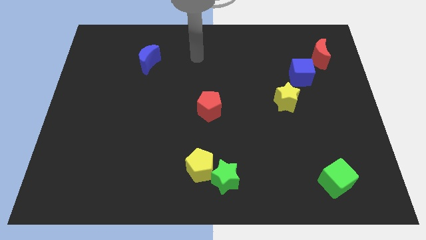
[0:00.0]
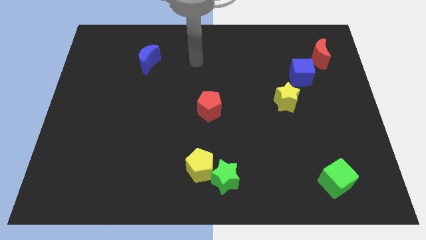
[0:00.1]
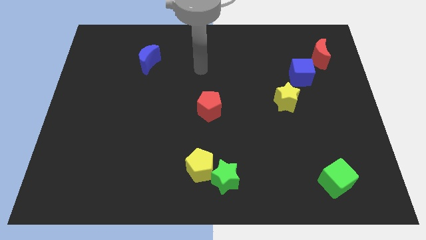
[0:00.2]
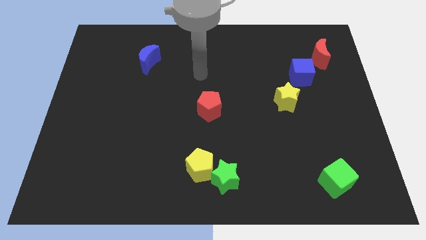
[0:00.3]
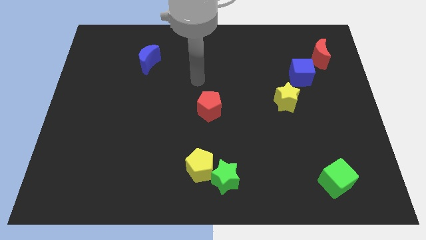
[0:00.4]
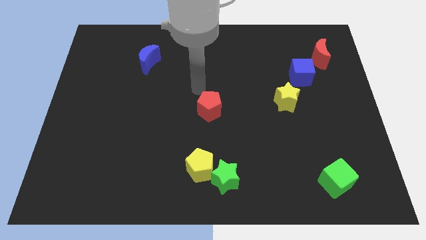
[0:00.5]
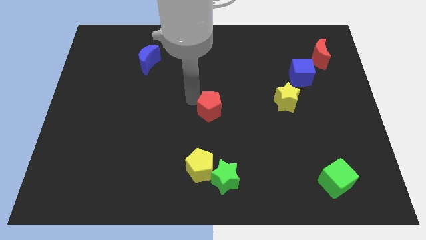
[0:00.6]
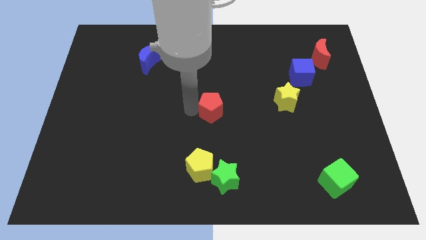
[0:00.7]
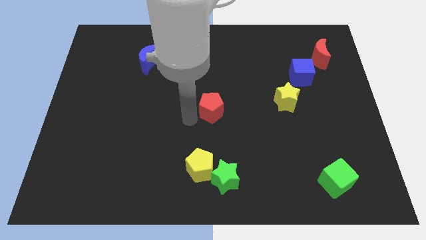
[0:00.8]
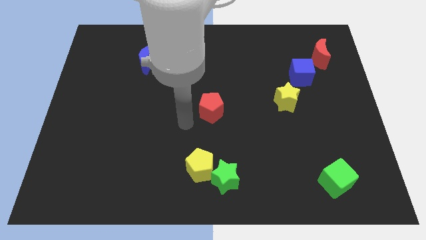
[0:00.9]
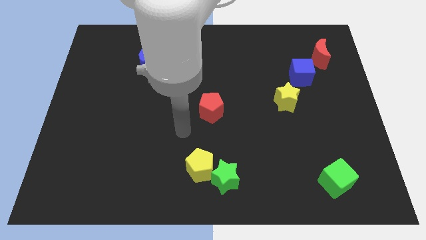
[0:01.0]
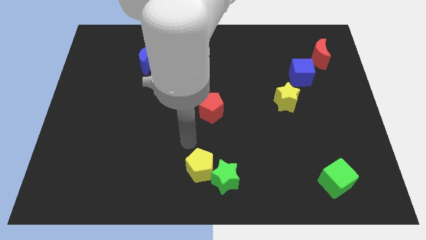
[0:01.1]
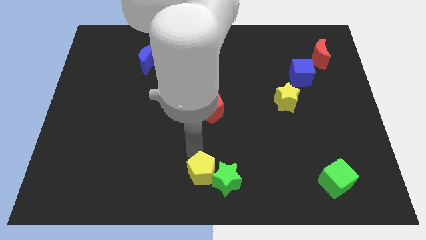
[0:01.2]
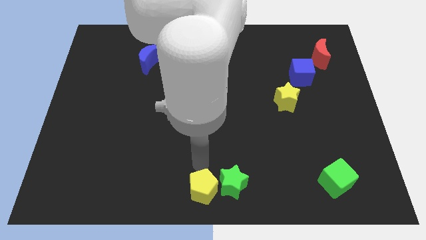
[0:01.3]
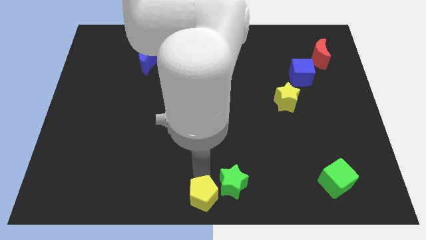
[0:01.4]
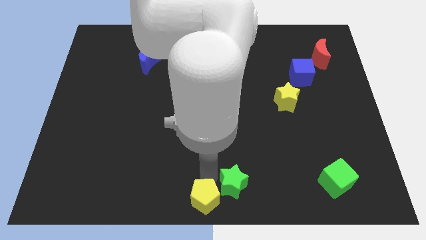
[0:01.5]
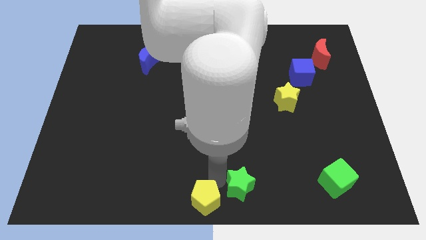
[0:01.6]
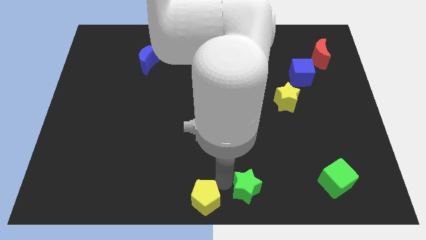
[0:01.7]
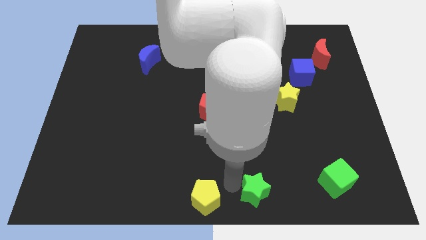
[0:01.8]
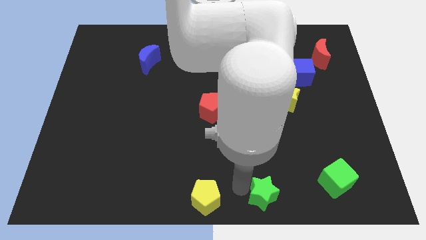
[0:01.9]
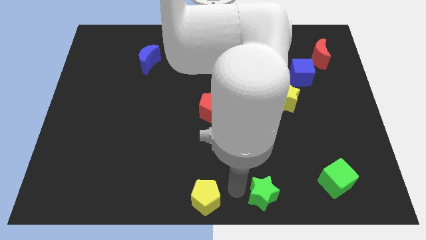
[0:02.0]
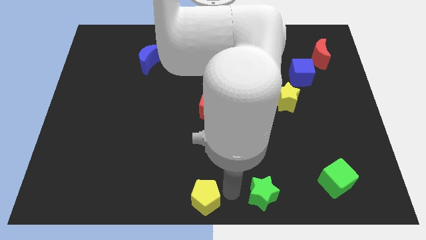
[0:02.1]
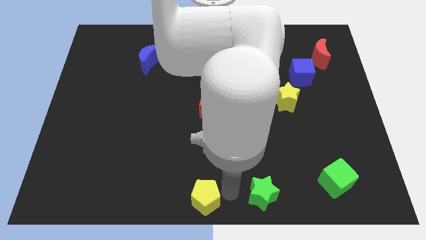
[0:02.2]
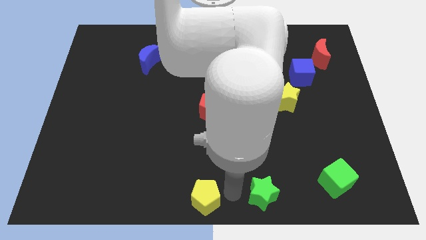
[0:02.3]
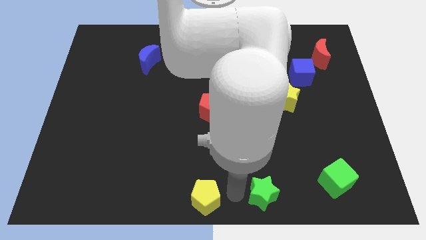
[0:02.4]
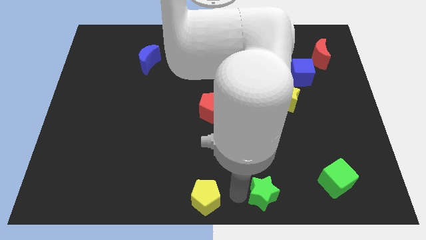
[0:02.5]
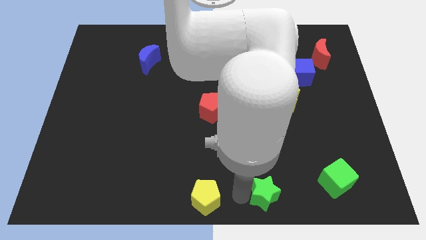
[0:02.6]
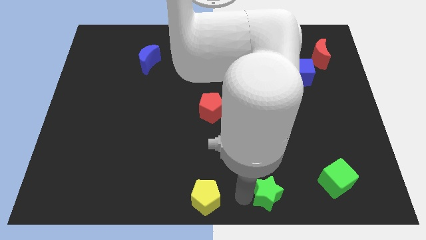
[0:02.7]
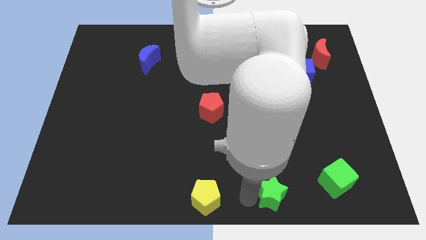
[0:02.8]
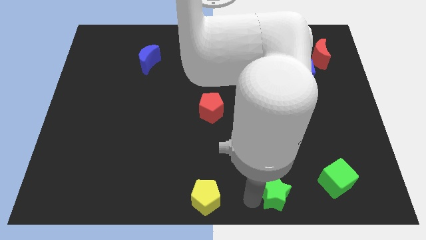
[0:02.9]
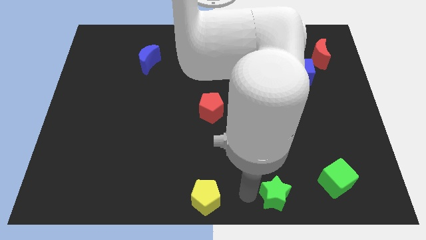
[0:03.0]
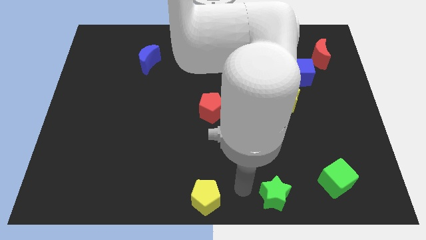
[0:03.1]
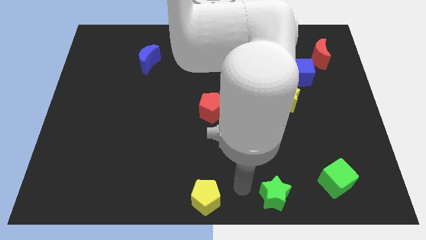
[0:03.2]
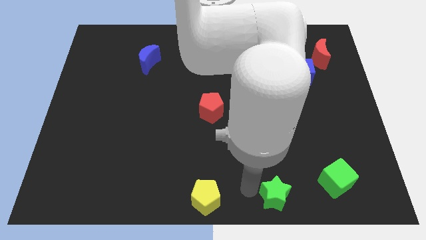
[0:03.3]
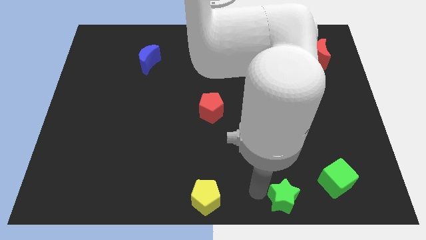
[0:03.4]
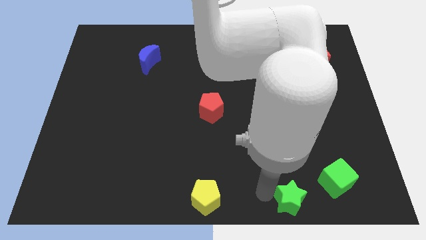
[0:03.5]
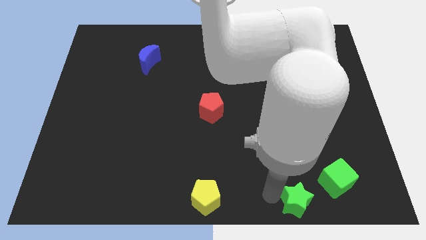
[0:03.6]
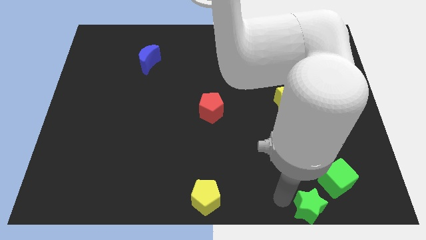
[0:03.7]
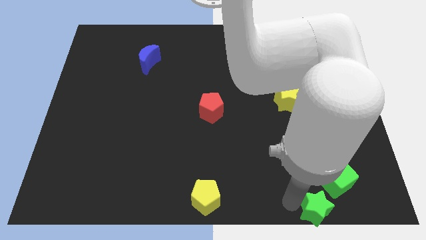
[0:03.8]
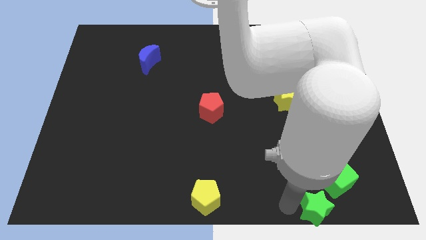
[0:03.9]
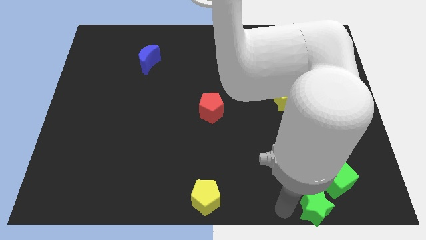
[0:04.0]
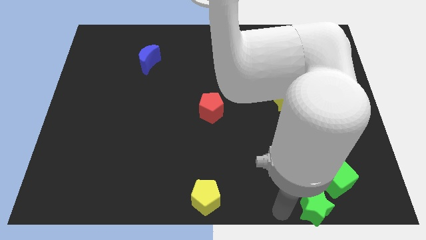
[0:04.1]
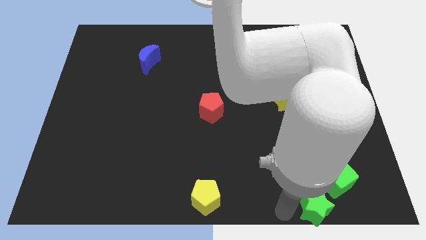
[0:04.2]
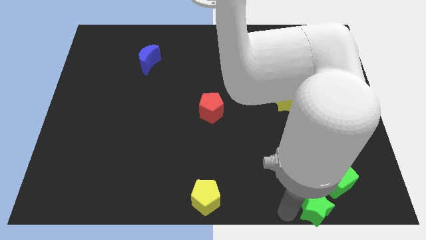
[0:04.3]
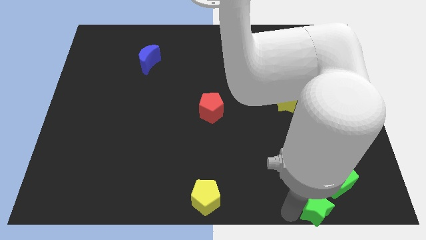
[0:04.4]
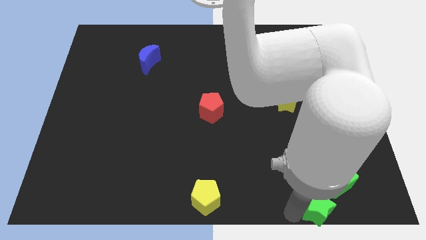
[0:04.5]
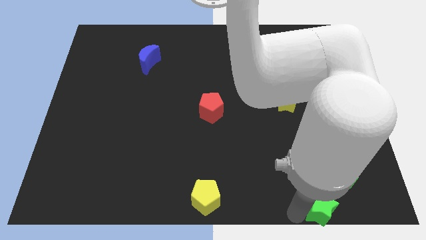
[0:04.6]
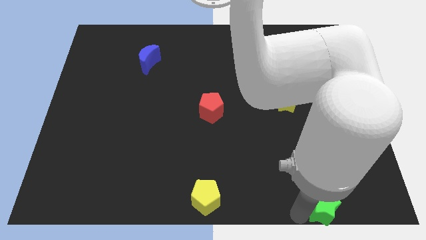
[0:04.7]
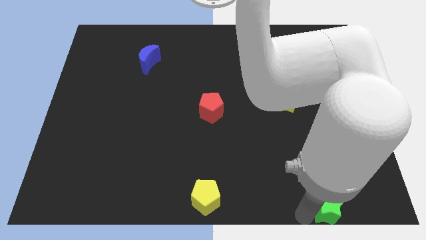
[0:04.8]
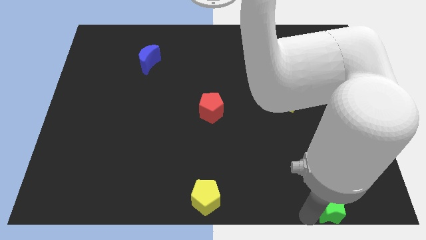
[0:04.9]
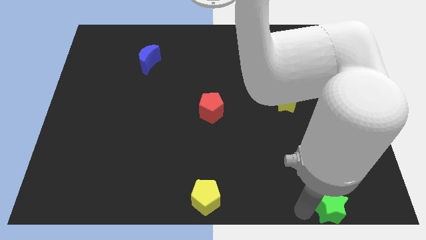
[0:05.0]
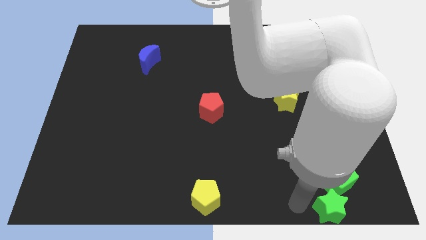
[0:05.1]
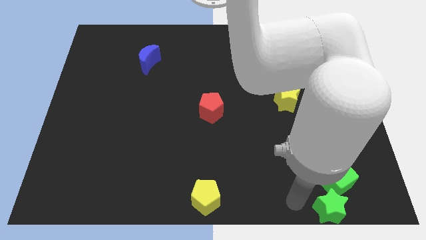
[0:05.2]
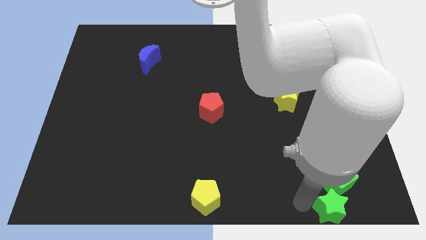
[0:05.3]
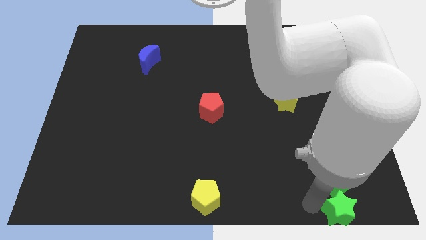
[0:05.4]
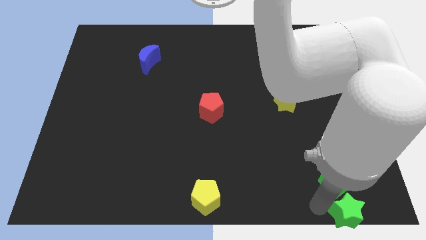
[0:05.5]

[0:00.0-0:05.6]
move the green star to the bottom right corner

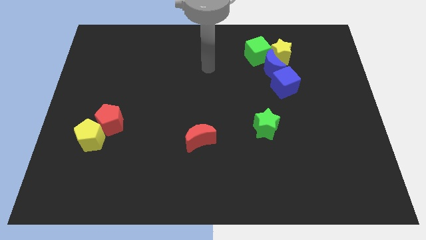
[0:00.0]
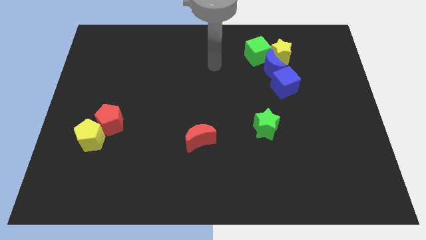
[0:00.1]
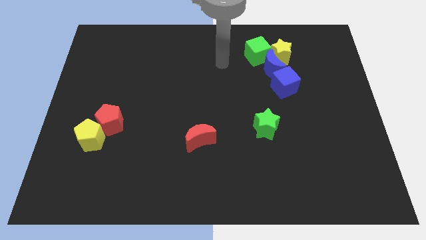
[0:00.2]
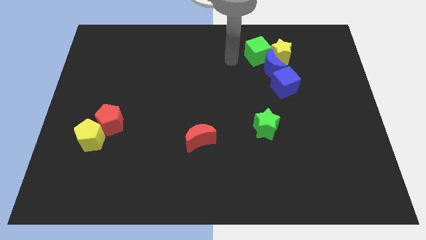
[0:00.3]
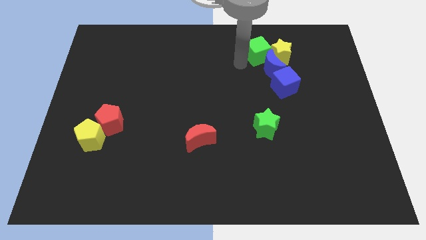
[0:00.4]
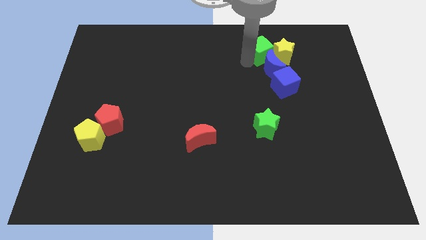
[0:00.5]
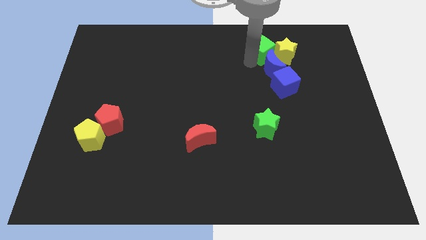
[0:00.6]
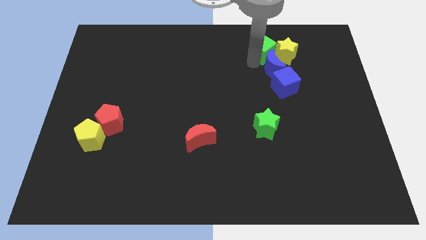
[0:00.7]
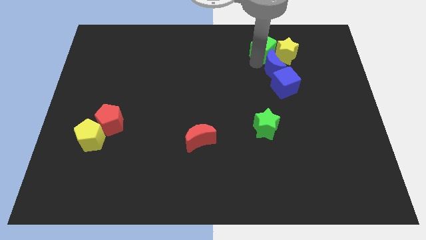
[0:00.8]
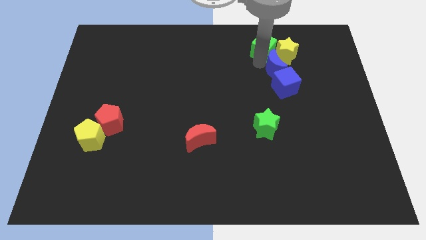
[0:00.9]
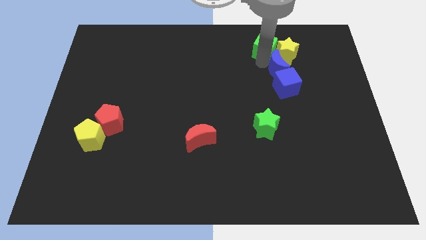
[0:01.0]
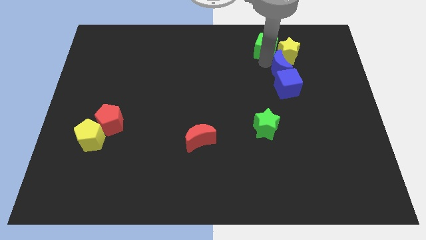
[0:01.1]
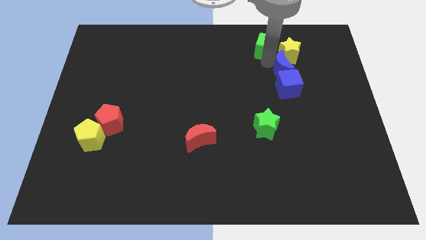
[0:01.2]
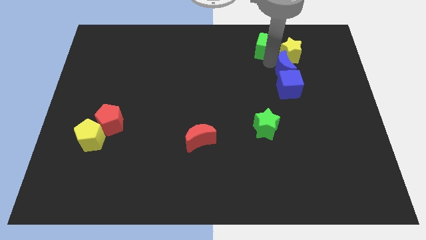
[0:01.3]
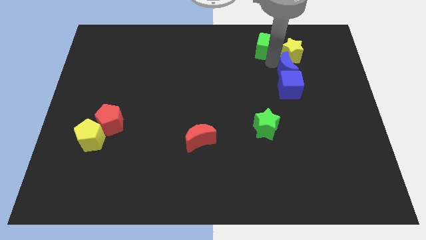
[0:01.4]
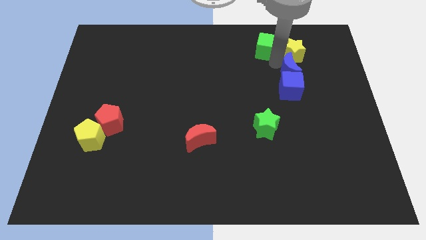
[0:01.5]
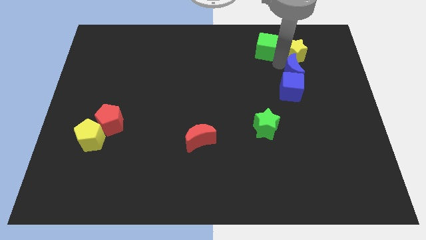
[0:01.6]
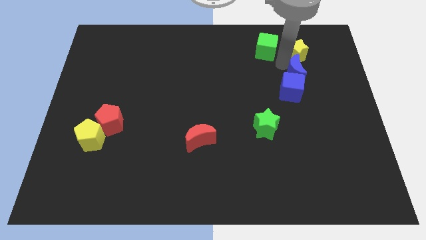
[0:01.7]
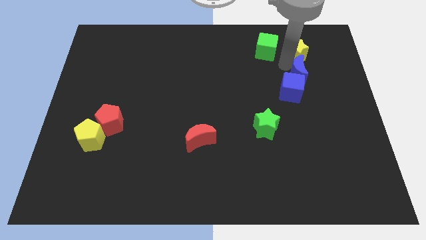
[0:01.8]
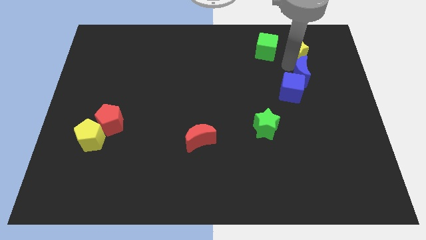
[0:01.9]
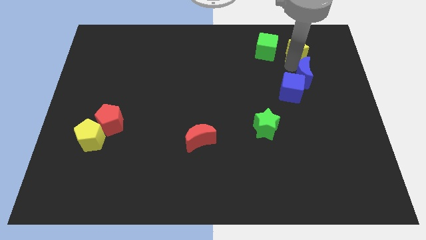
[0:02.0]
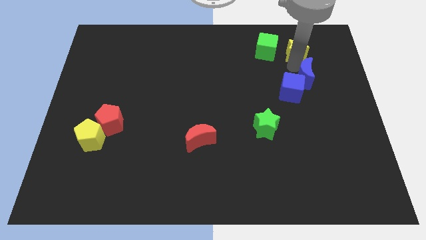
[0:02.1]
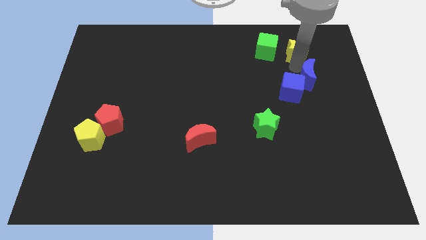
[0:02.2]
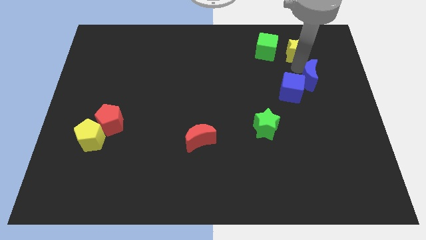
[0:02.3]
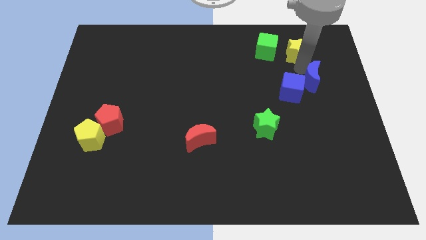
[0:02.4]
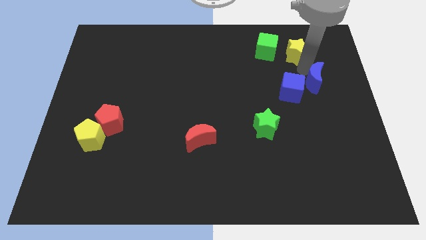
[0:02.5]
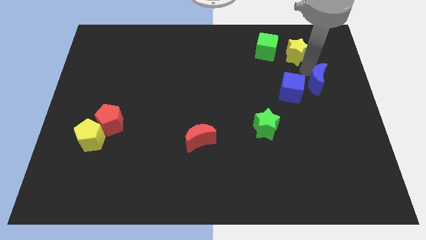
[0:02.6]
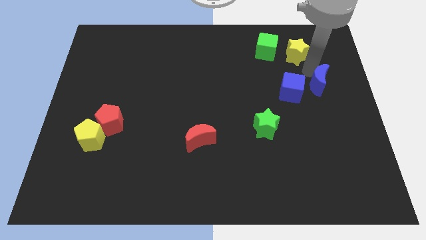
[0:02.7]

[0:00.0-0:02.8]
slide the blue moon to the center right
